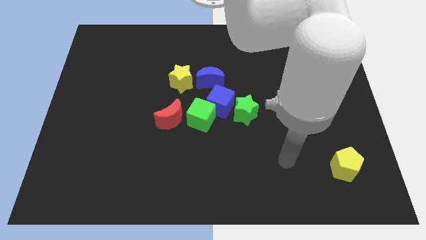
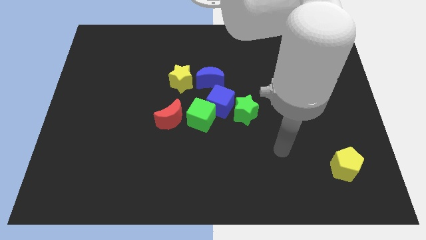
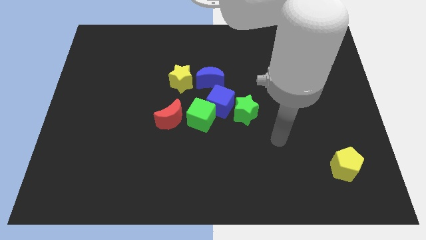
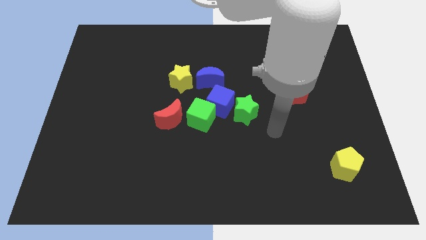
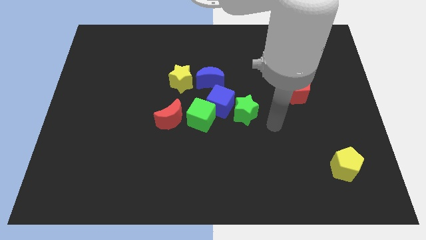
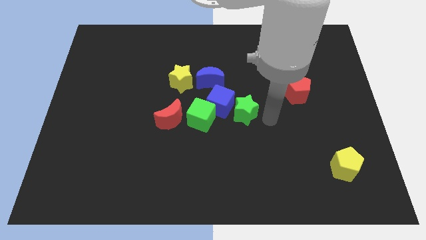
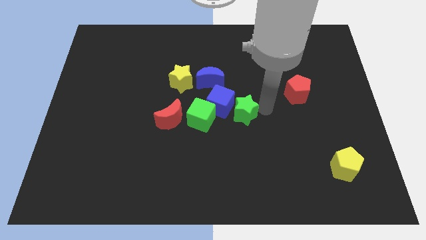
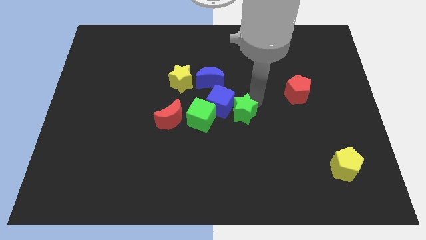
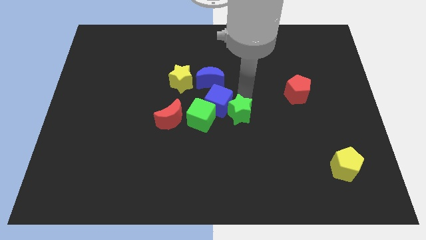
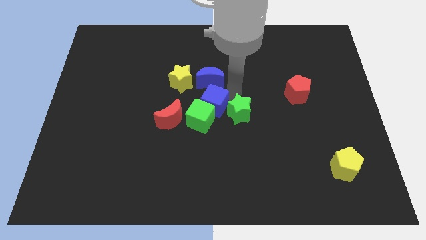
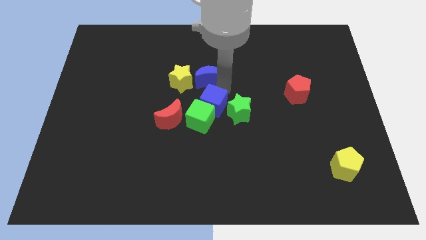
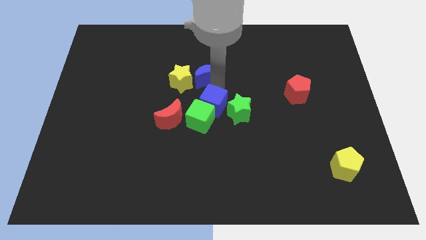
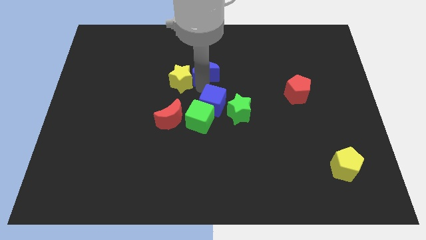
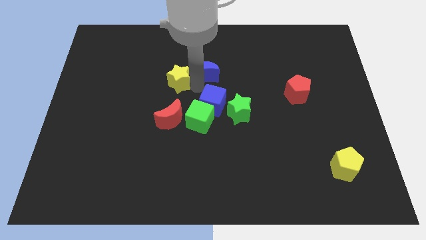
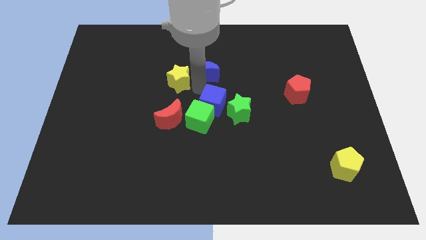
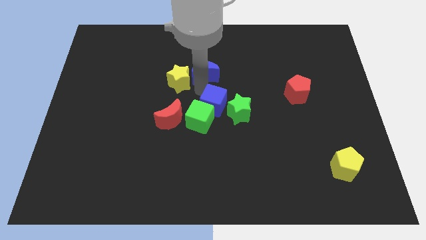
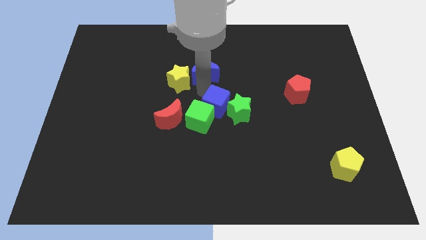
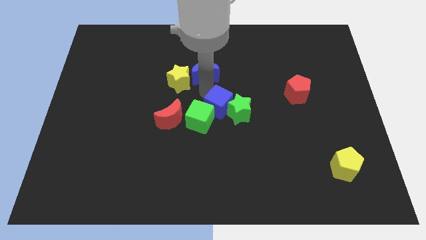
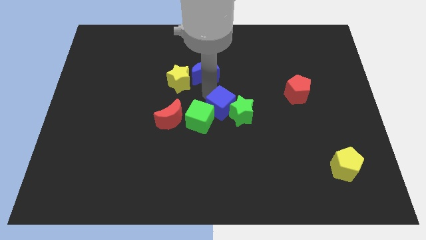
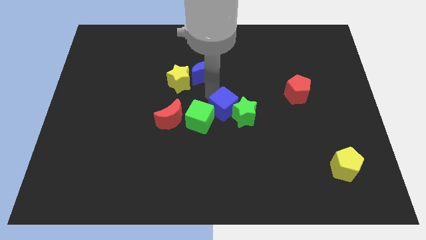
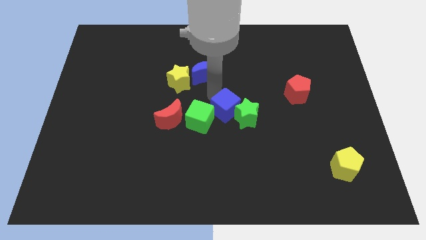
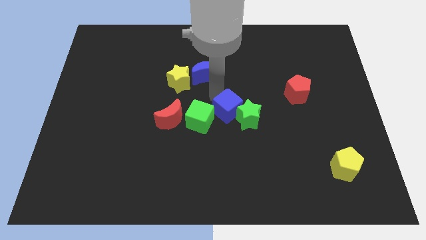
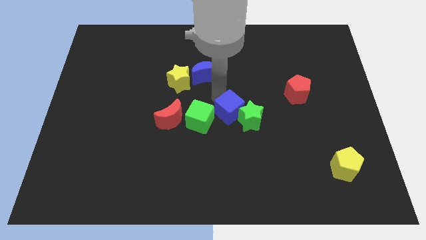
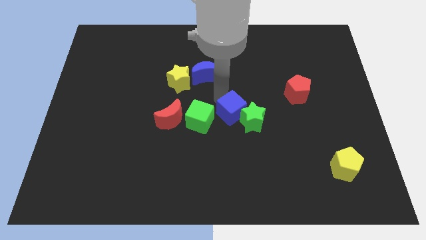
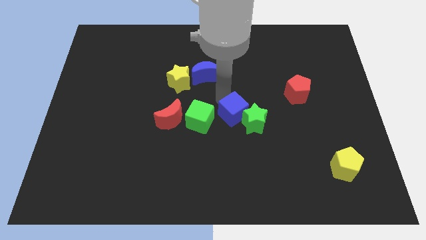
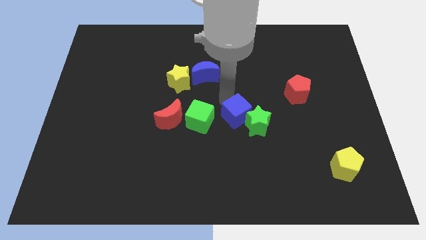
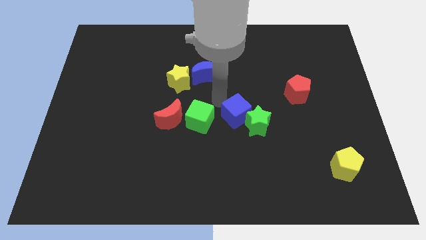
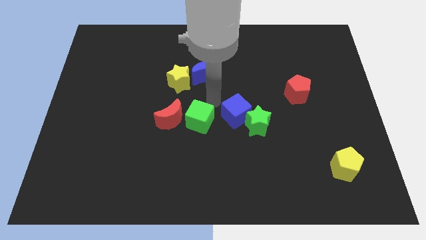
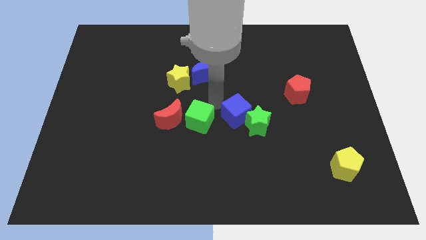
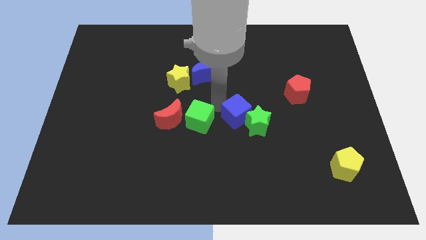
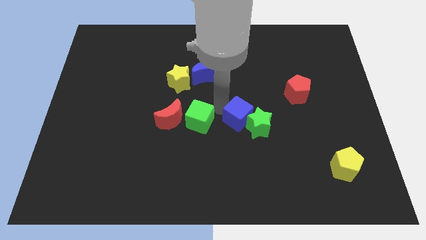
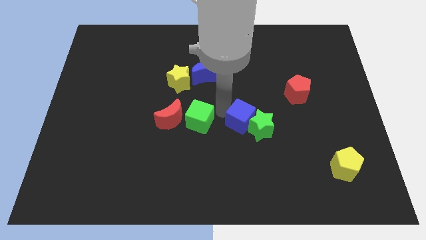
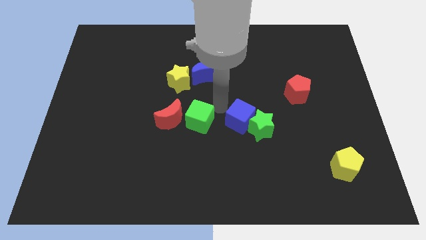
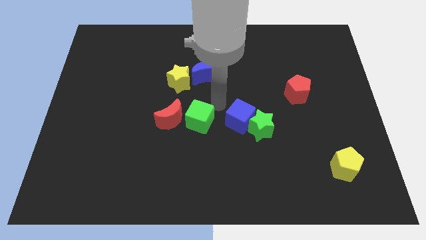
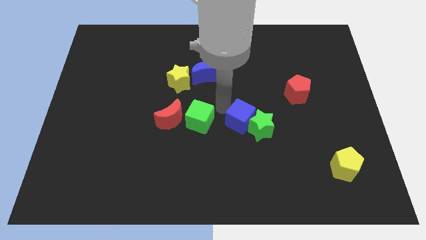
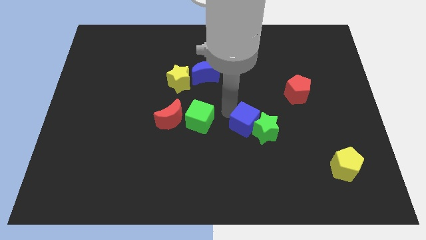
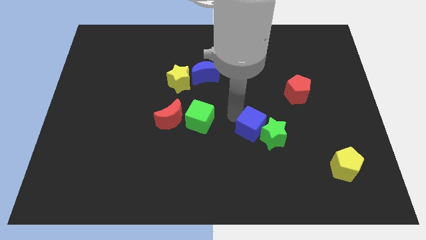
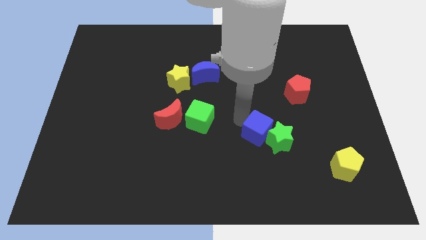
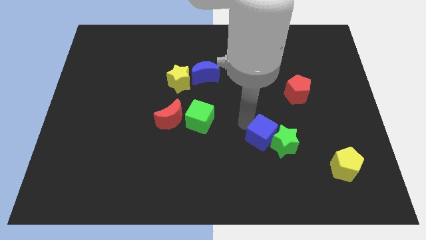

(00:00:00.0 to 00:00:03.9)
pull the blue cube apart from the group of blocks

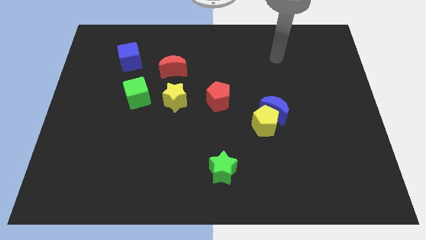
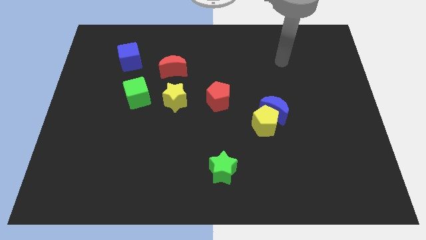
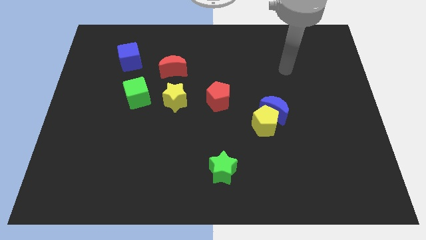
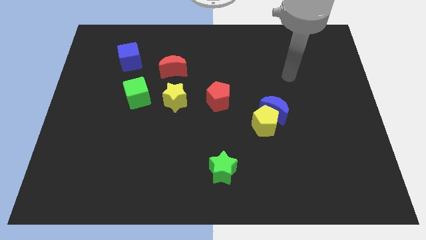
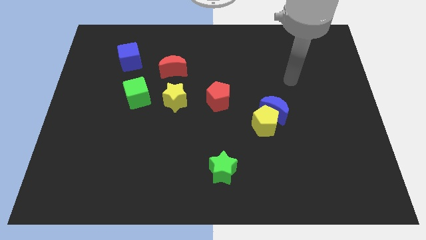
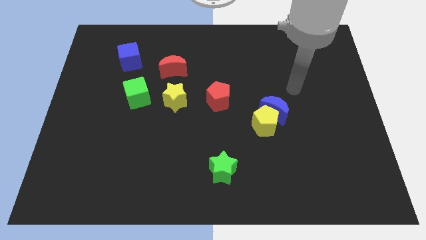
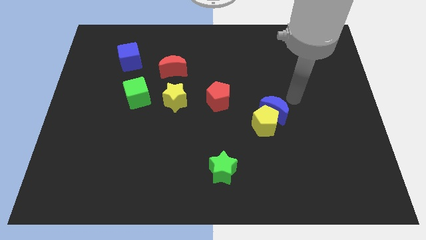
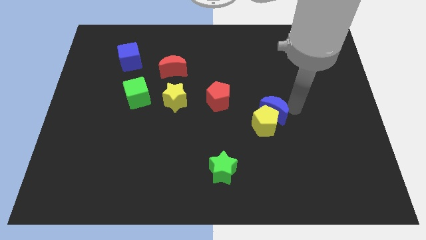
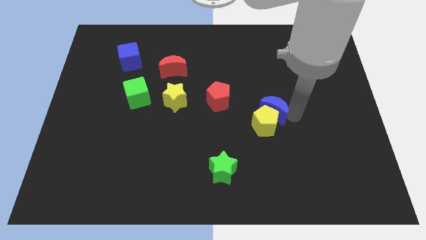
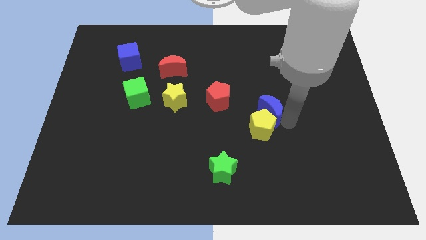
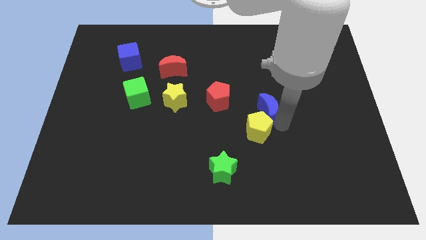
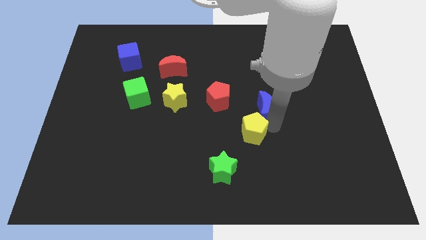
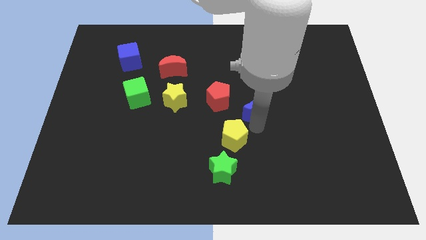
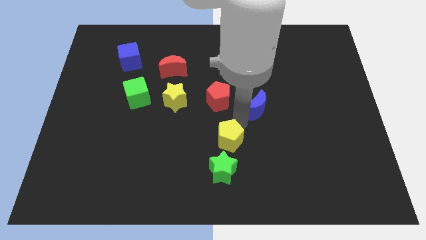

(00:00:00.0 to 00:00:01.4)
separate the blue moon from the yellow pentagon

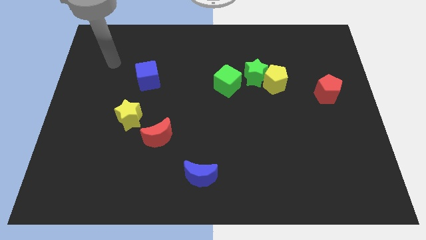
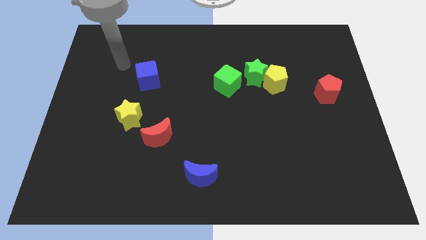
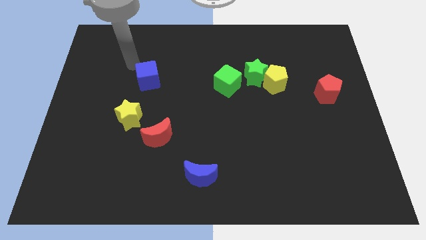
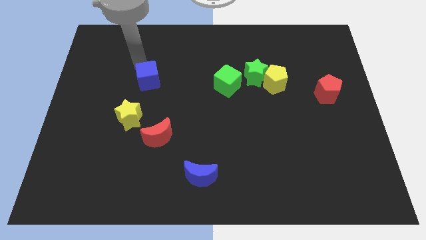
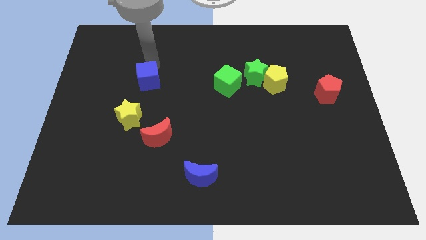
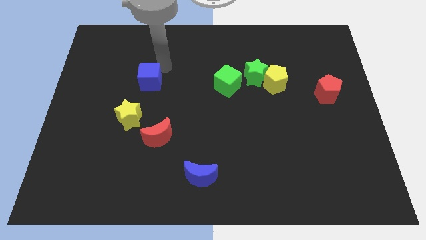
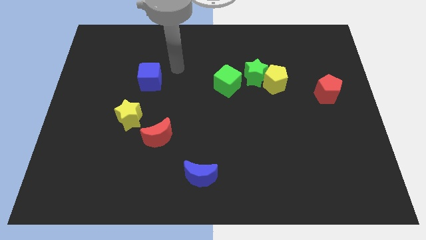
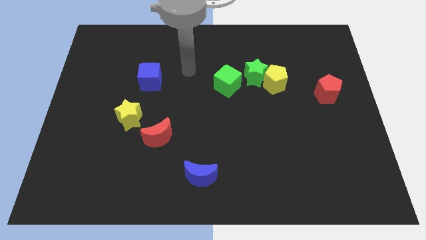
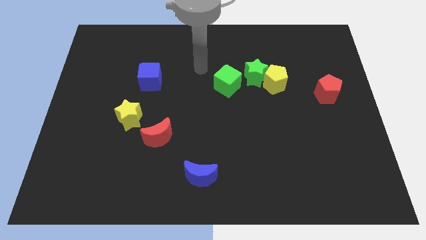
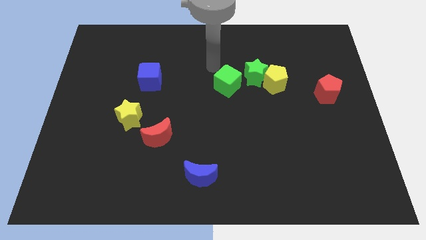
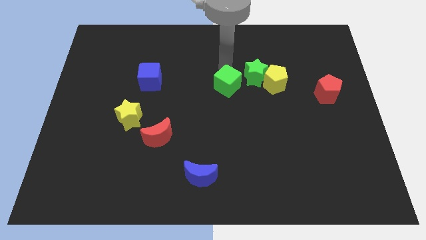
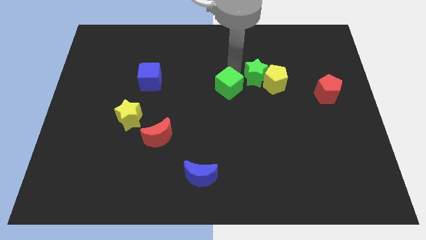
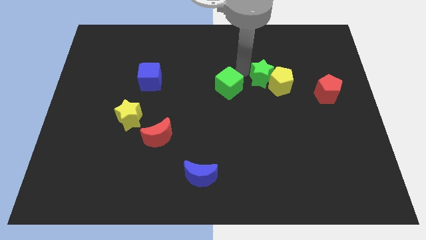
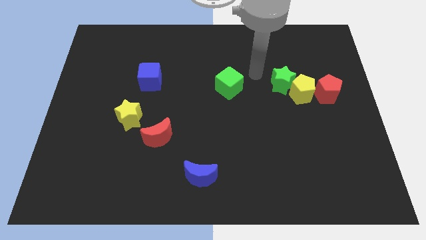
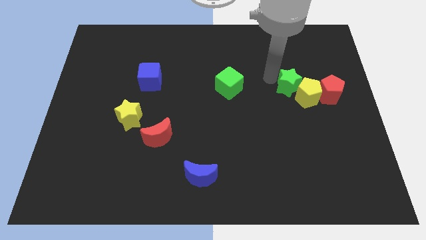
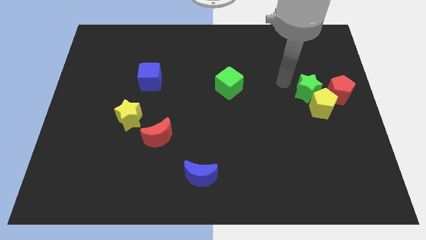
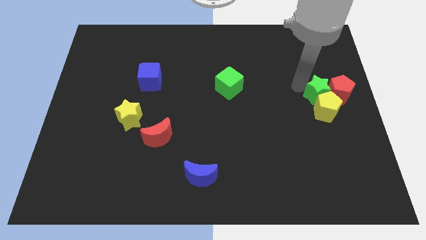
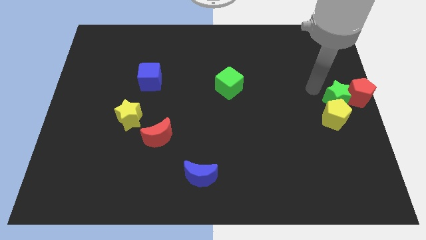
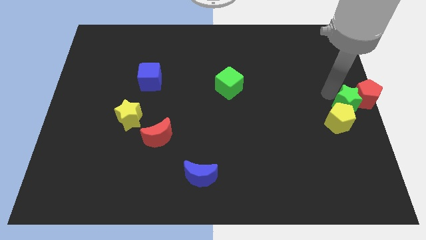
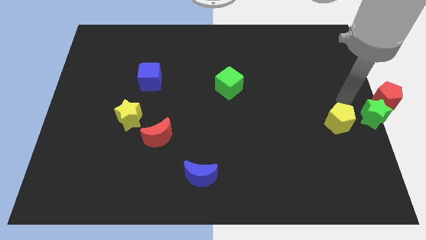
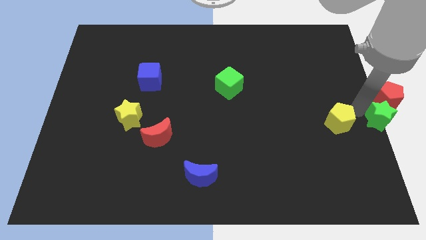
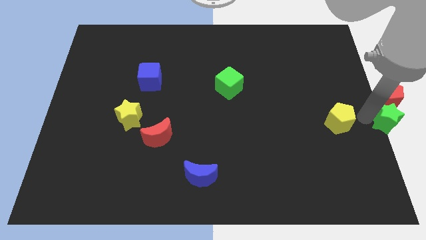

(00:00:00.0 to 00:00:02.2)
separate the yellow pentagon from the green star

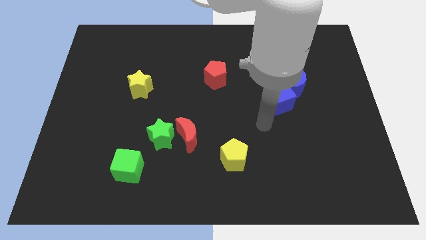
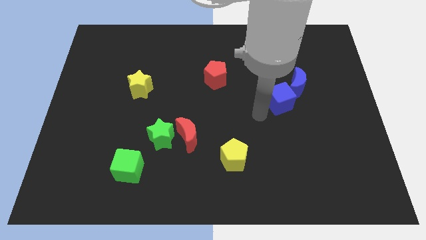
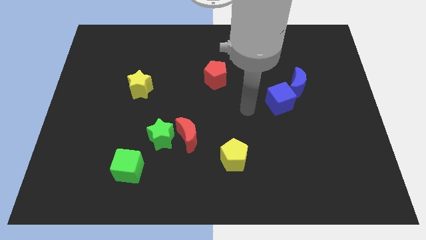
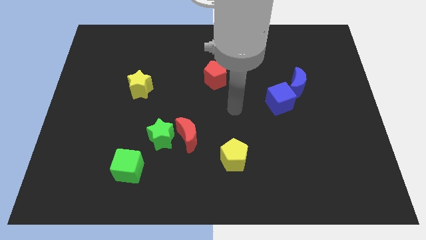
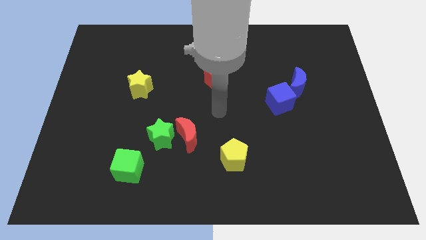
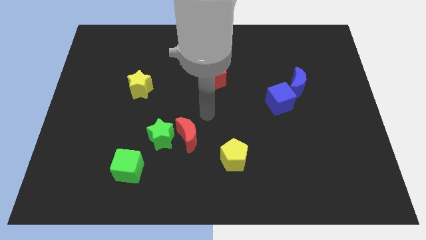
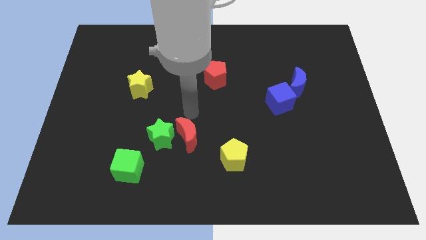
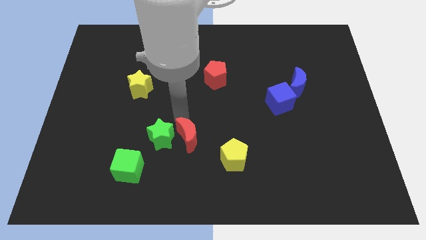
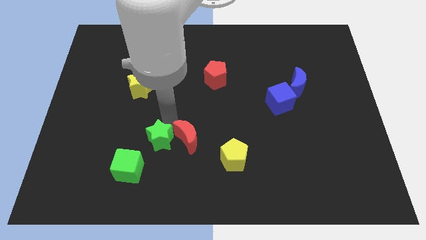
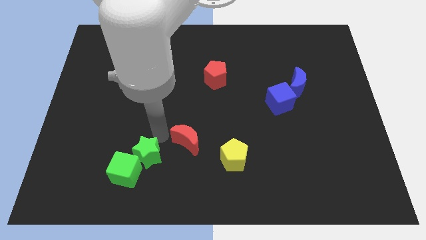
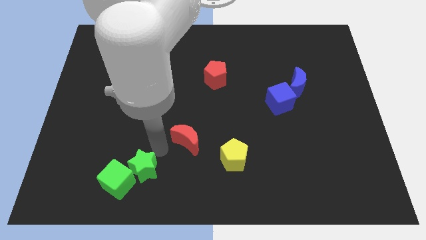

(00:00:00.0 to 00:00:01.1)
pull the red moon apart from the green star

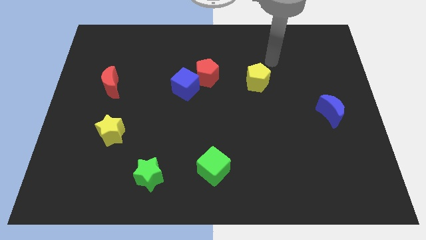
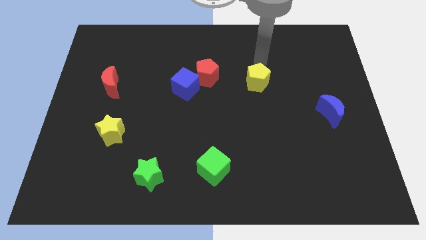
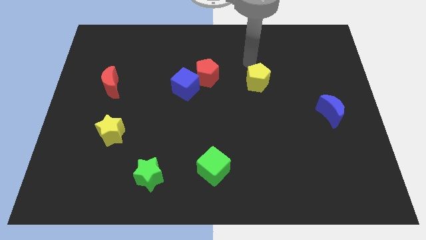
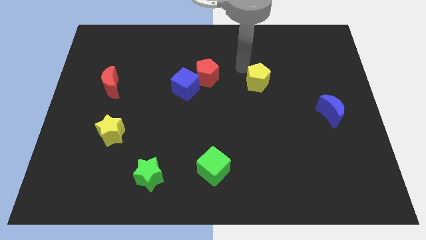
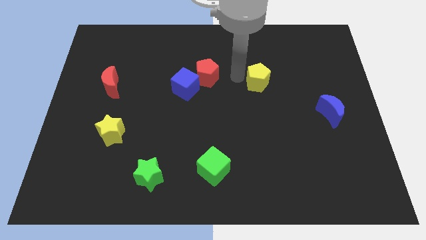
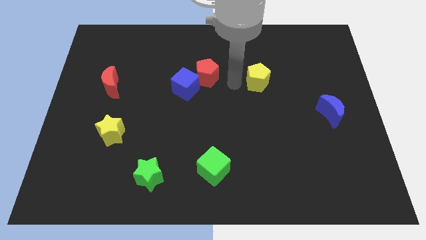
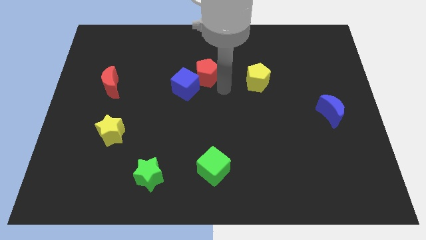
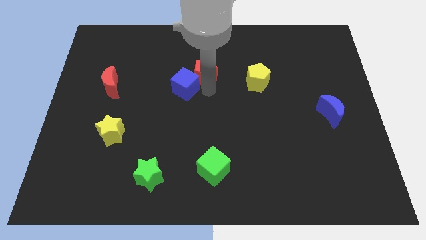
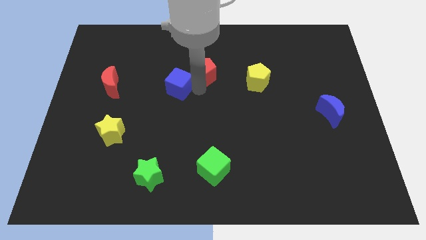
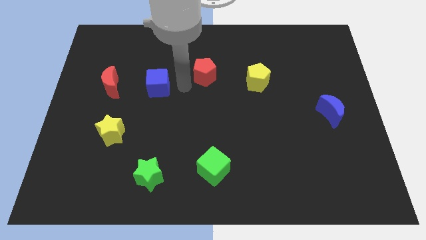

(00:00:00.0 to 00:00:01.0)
separate the red pentagon from the blue cube
